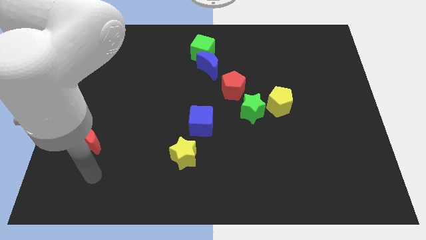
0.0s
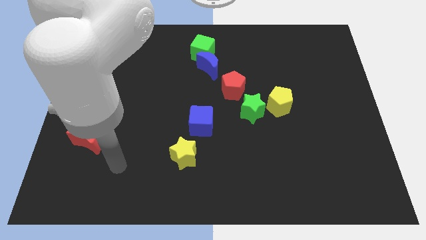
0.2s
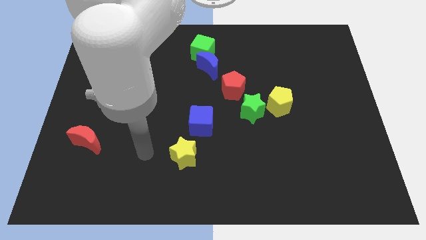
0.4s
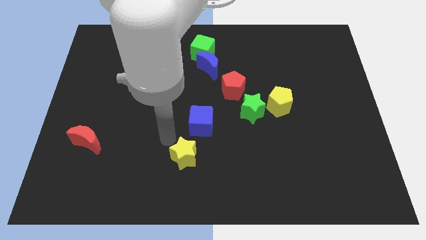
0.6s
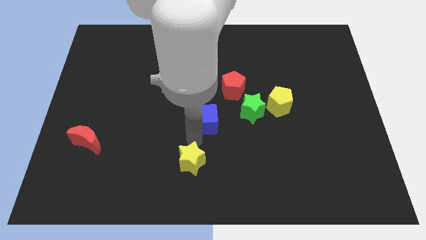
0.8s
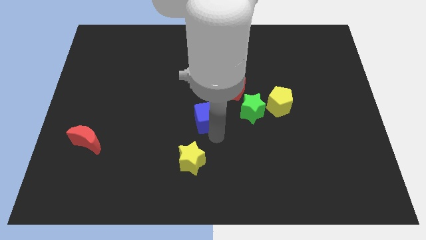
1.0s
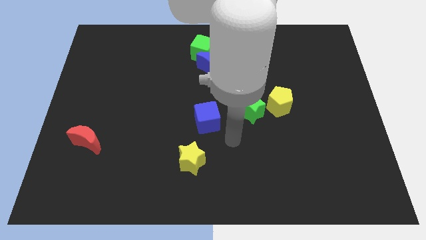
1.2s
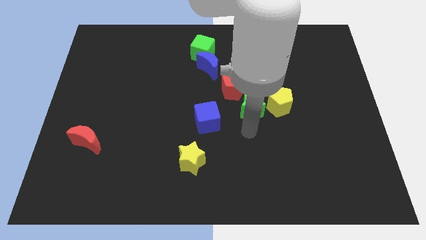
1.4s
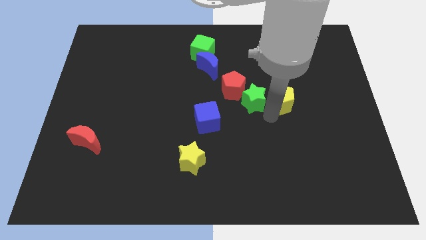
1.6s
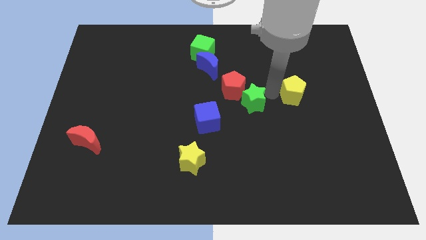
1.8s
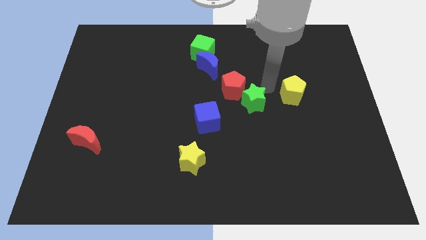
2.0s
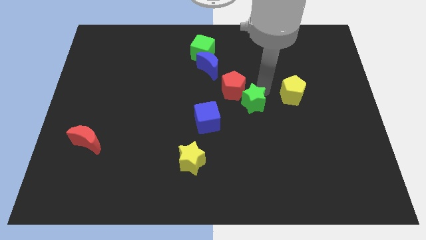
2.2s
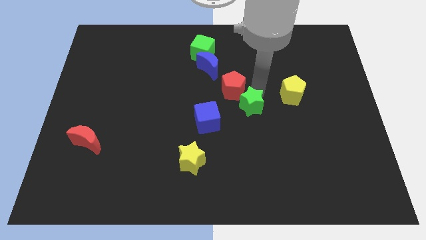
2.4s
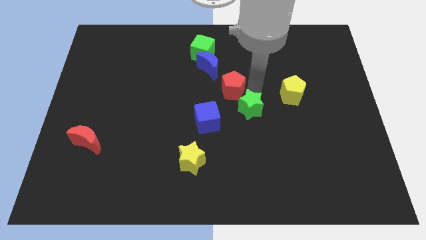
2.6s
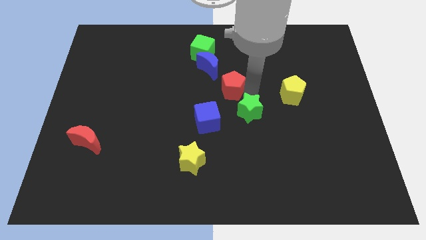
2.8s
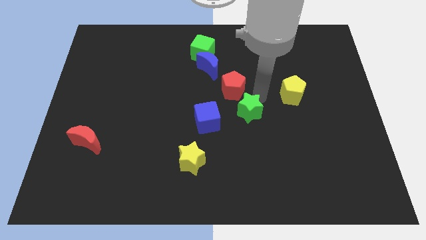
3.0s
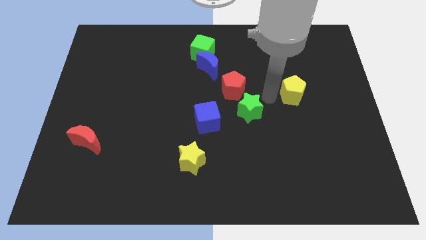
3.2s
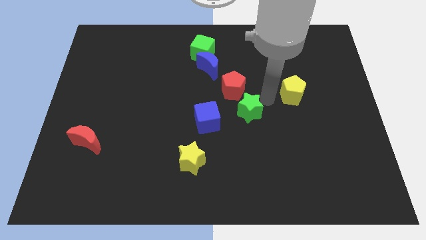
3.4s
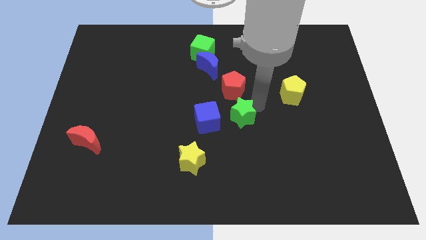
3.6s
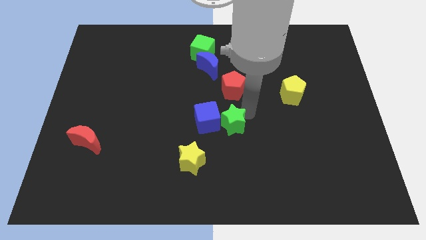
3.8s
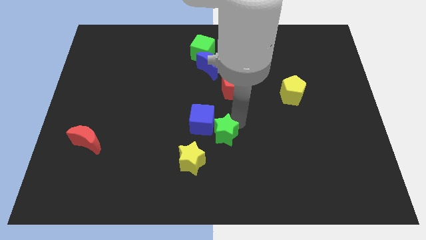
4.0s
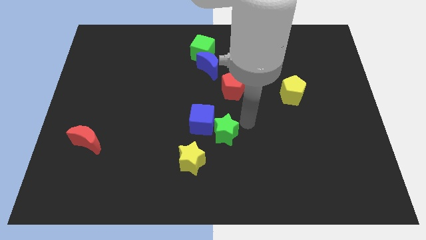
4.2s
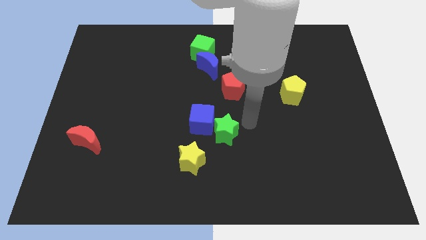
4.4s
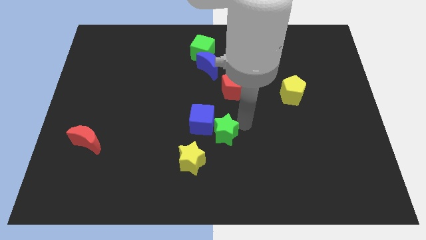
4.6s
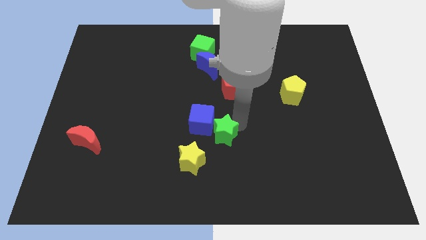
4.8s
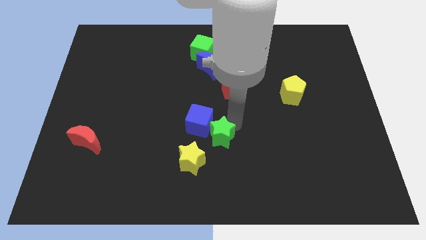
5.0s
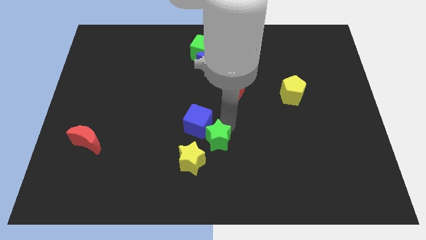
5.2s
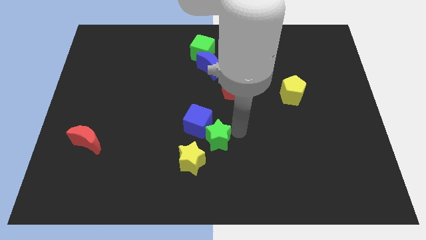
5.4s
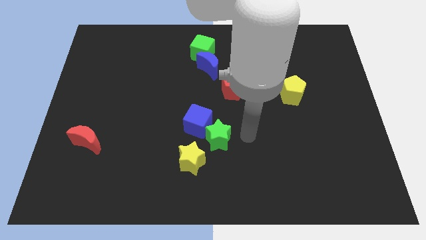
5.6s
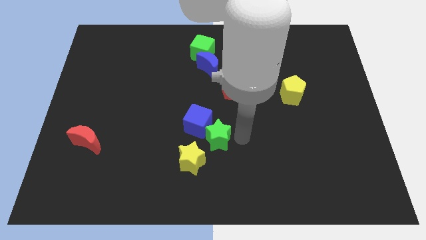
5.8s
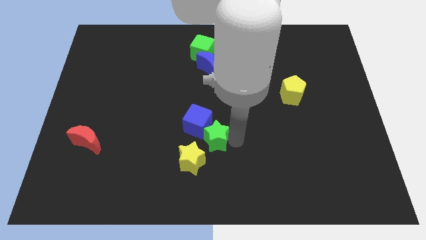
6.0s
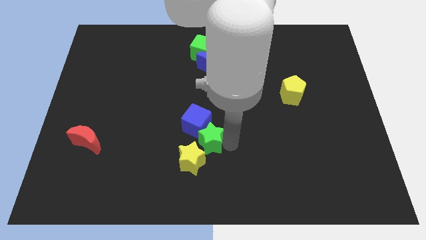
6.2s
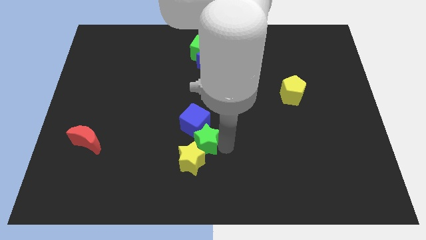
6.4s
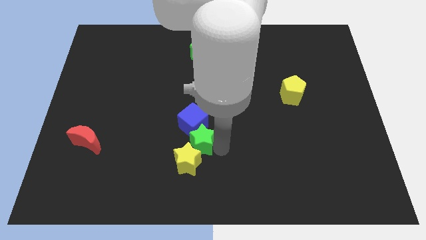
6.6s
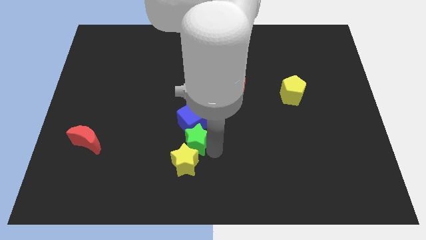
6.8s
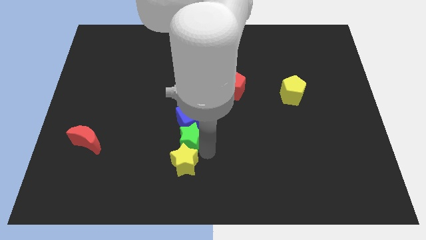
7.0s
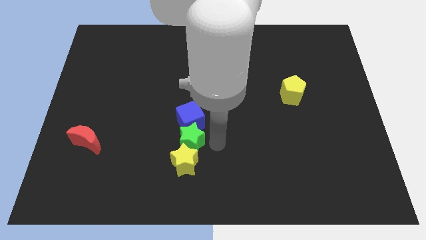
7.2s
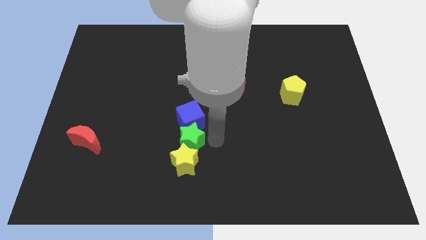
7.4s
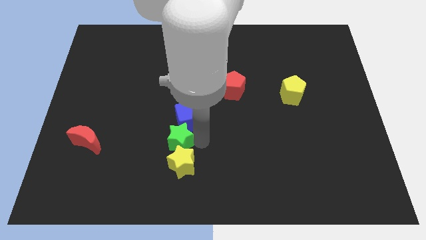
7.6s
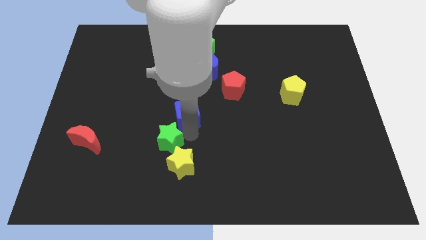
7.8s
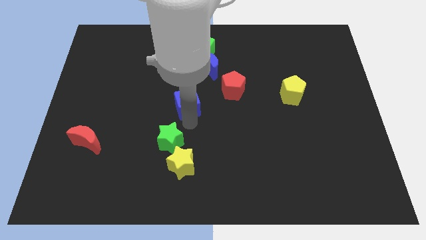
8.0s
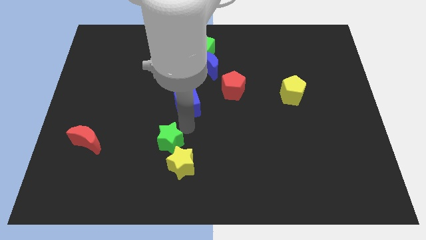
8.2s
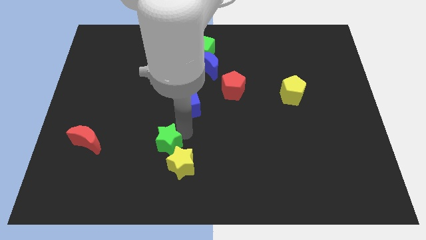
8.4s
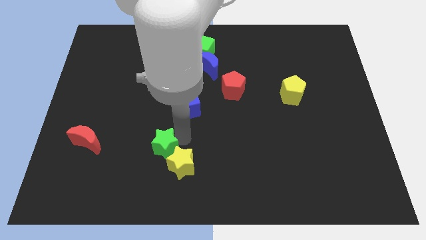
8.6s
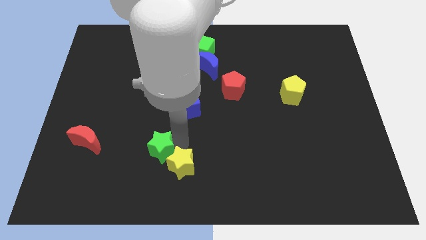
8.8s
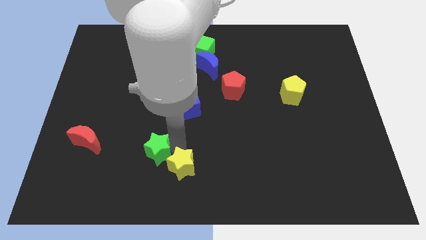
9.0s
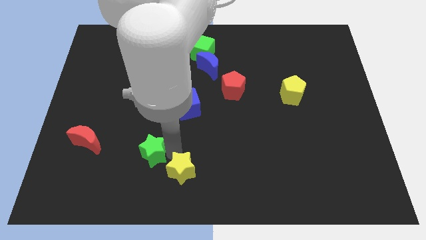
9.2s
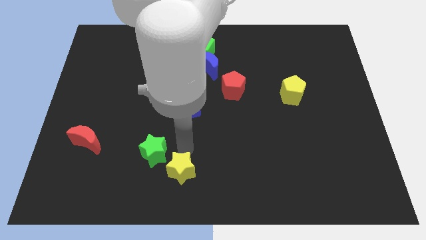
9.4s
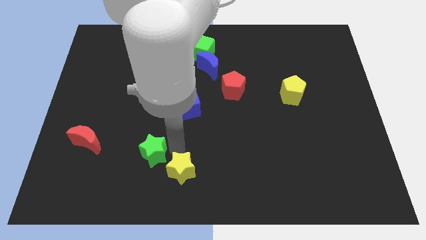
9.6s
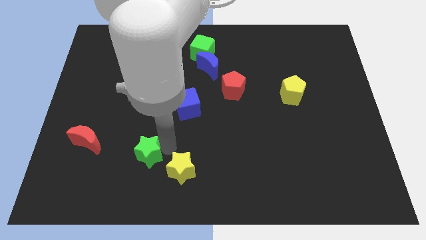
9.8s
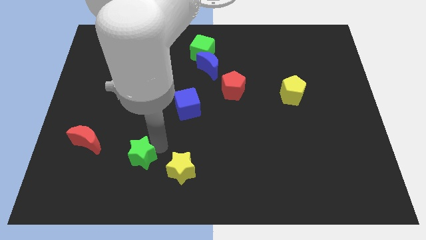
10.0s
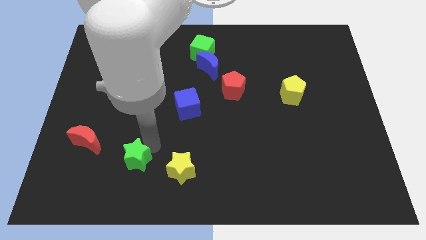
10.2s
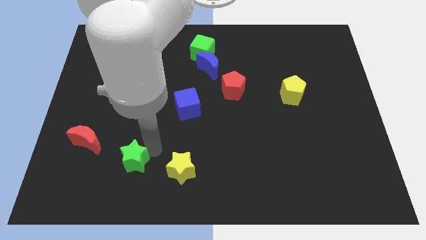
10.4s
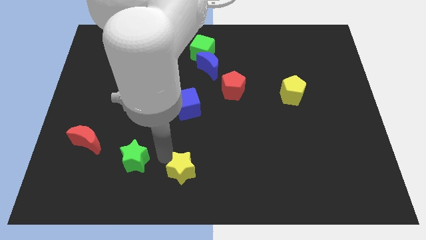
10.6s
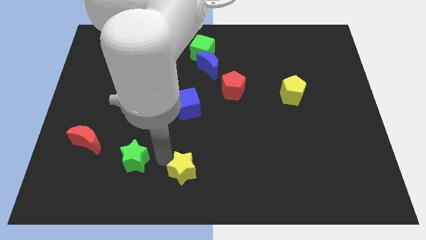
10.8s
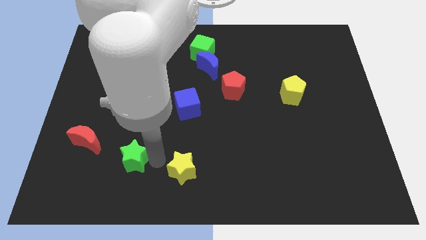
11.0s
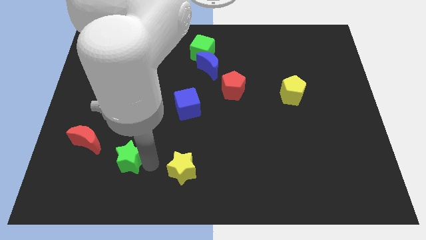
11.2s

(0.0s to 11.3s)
slide the green star to the bottom right of the red moon

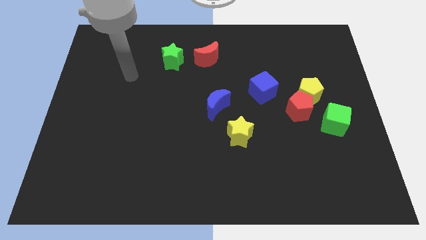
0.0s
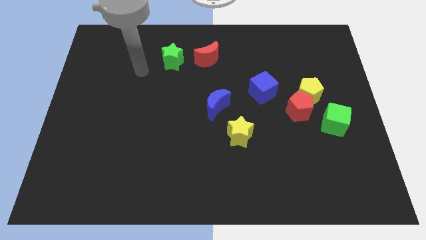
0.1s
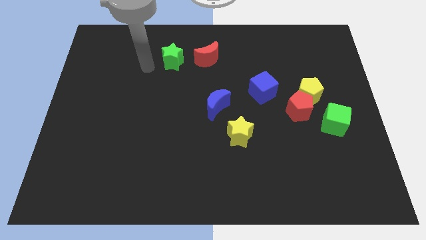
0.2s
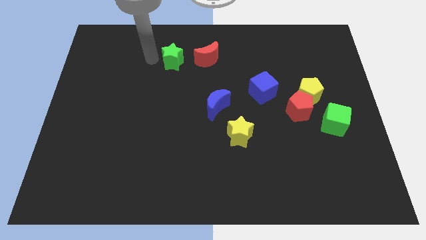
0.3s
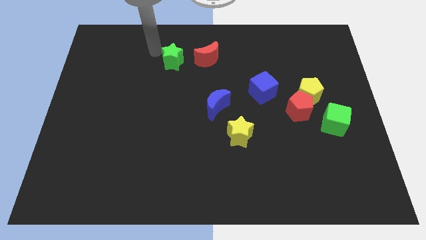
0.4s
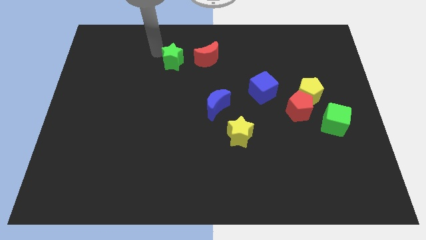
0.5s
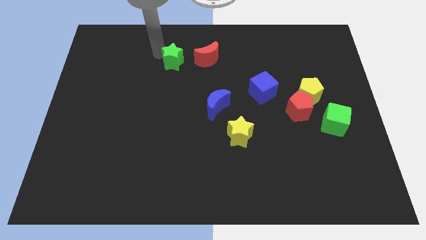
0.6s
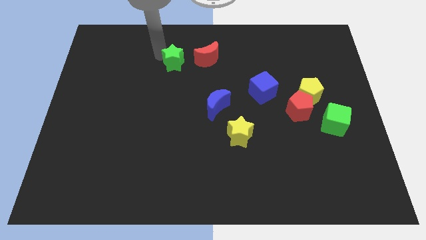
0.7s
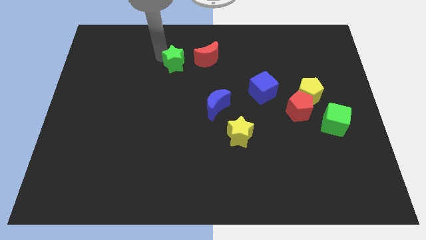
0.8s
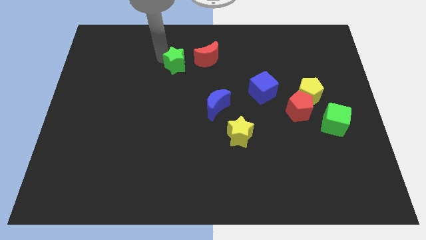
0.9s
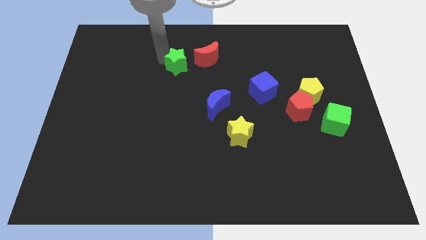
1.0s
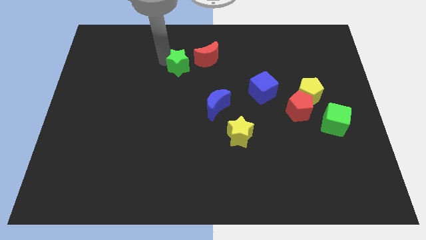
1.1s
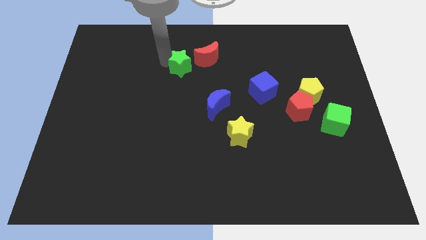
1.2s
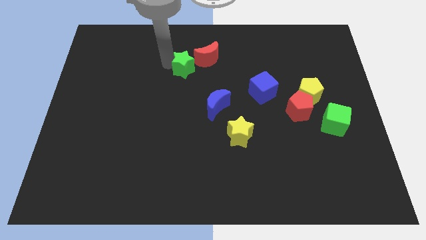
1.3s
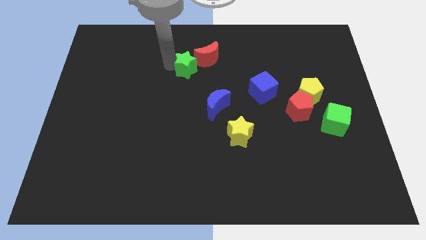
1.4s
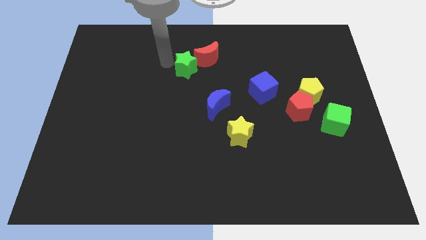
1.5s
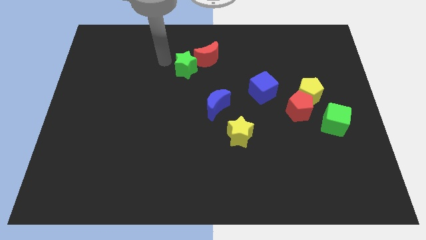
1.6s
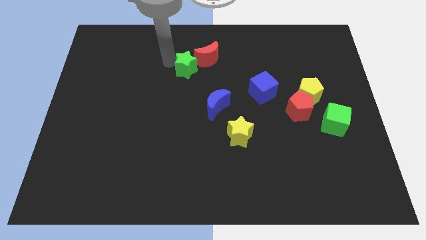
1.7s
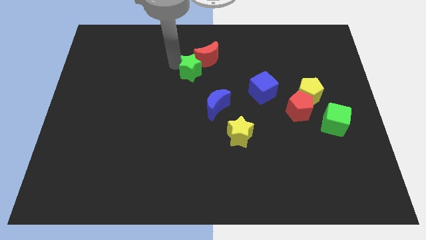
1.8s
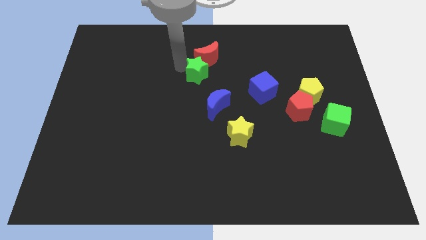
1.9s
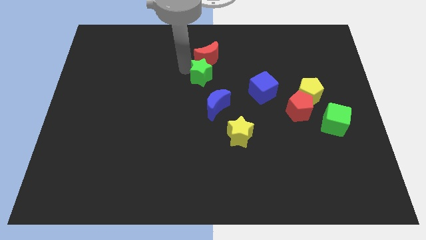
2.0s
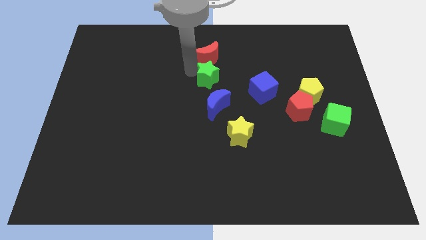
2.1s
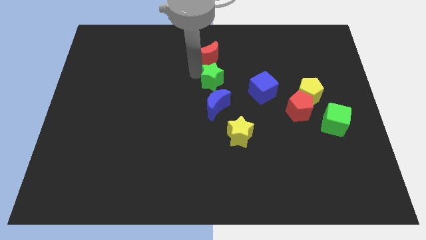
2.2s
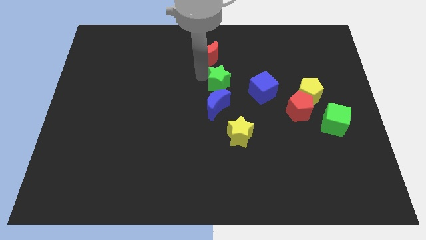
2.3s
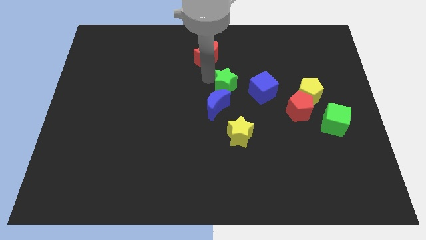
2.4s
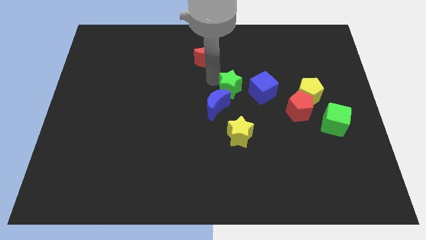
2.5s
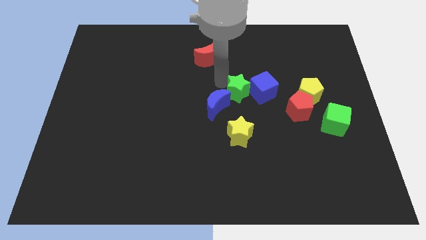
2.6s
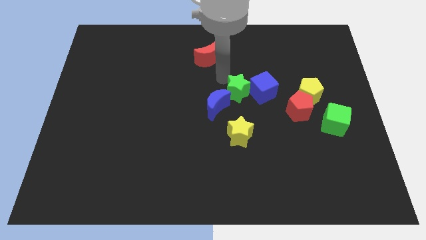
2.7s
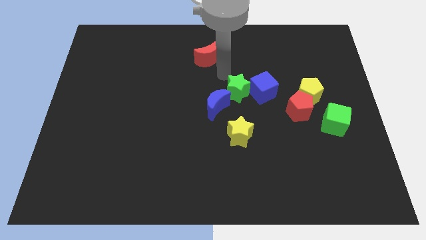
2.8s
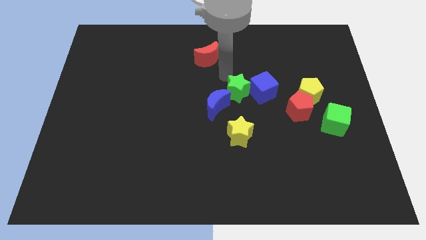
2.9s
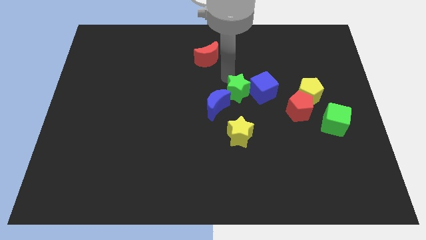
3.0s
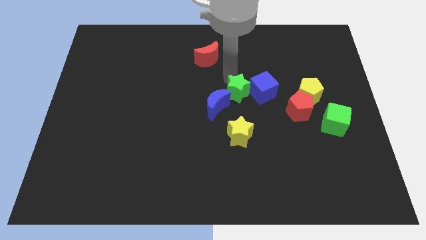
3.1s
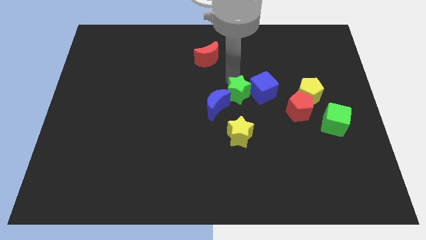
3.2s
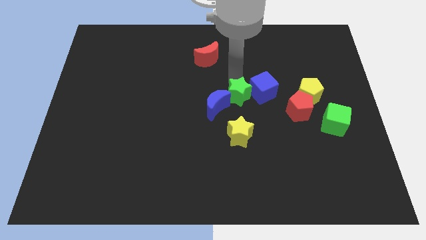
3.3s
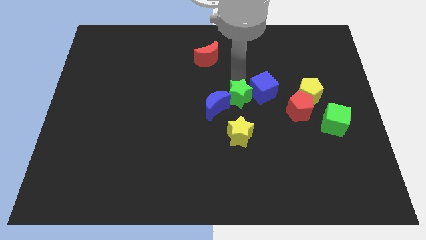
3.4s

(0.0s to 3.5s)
slide the green star just left of the red pentagon
